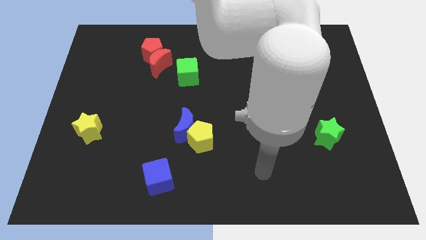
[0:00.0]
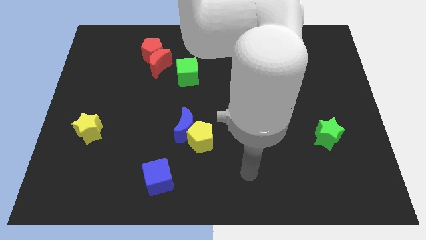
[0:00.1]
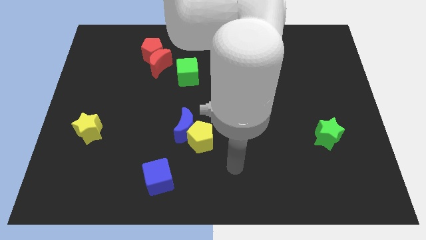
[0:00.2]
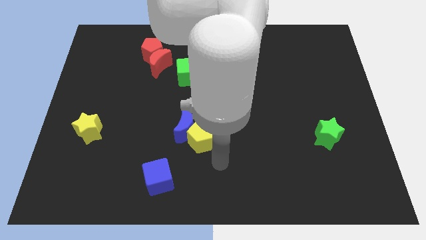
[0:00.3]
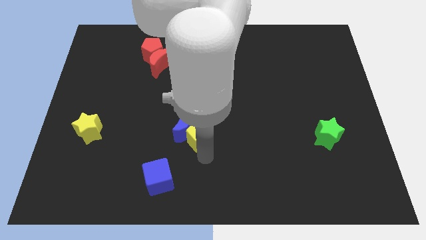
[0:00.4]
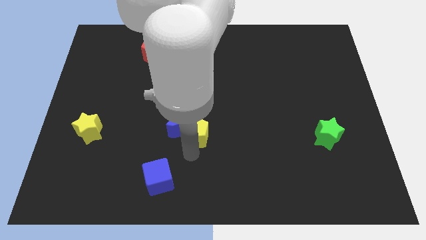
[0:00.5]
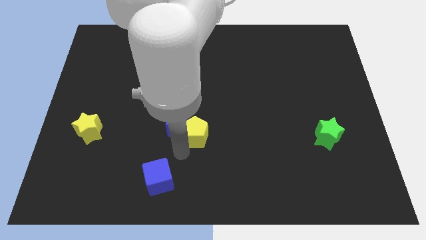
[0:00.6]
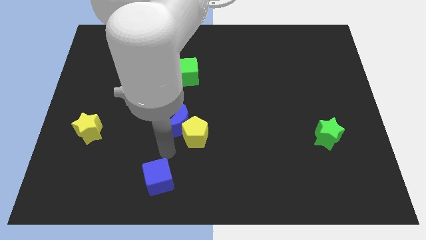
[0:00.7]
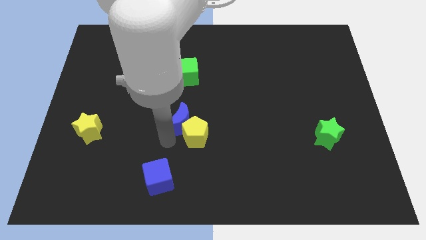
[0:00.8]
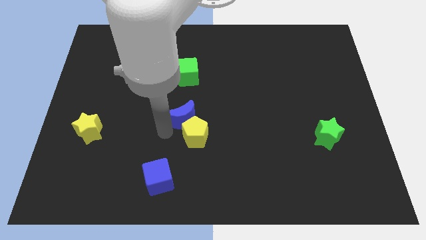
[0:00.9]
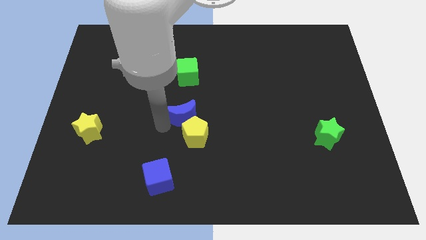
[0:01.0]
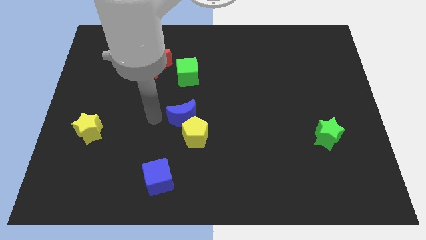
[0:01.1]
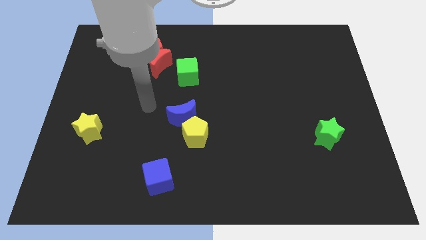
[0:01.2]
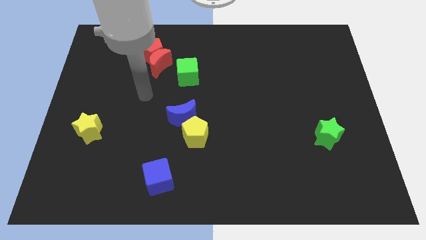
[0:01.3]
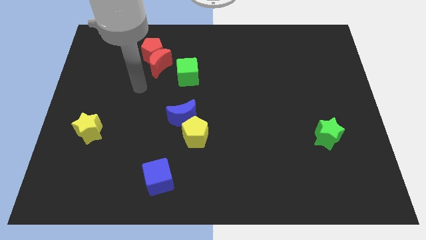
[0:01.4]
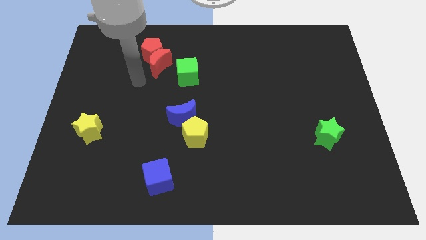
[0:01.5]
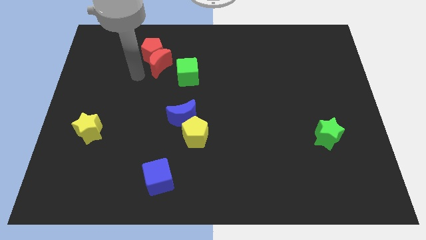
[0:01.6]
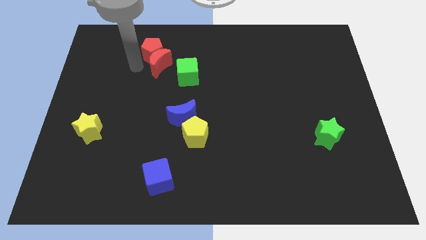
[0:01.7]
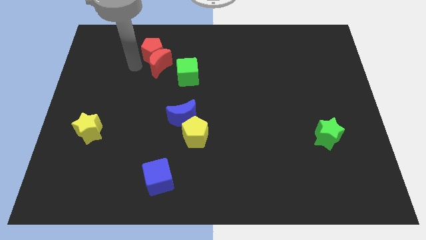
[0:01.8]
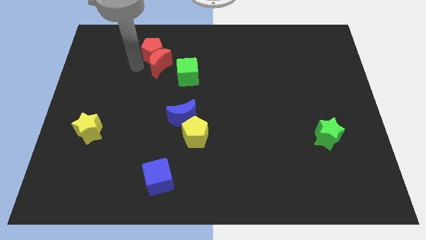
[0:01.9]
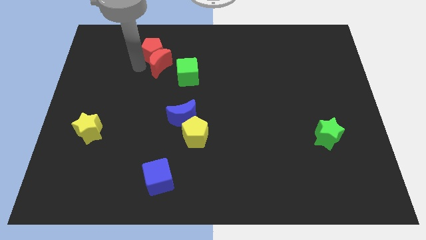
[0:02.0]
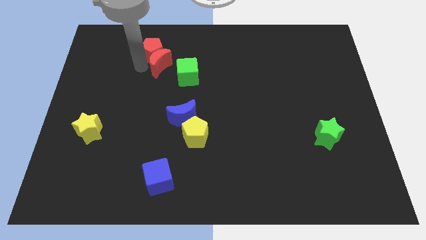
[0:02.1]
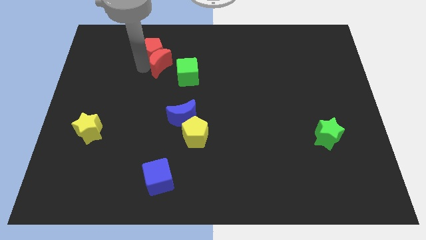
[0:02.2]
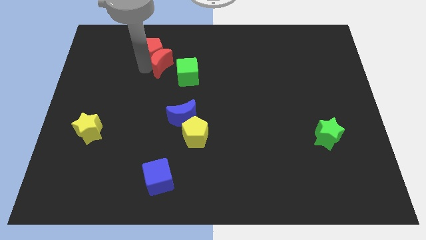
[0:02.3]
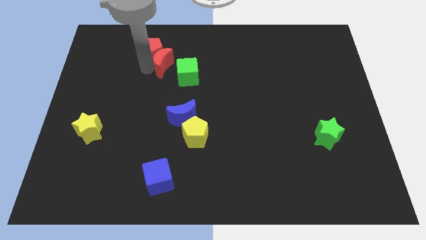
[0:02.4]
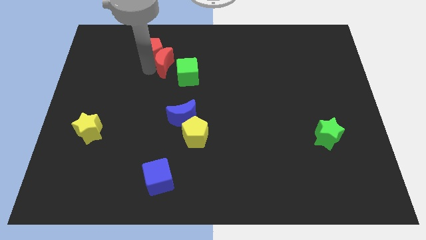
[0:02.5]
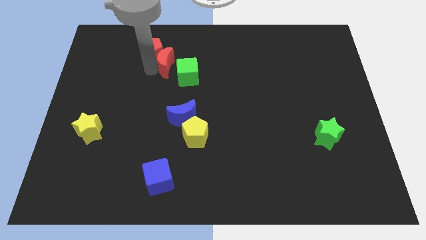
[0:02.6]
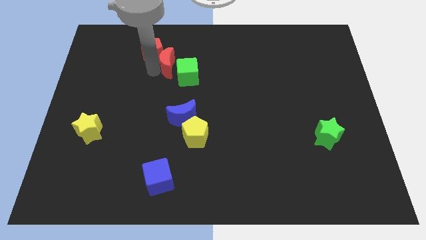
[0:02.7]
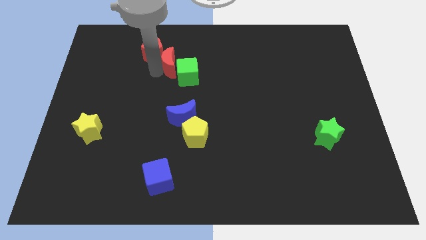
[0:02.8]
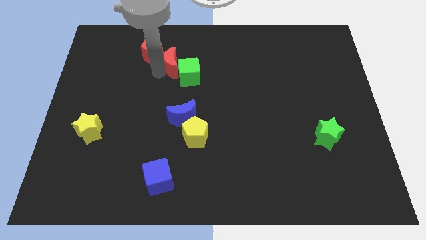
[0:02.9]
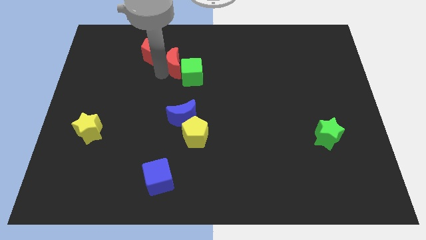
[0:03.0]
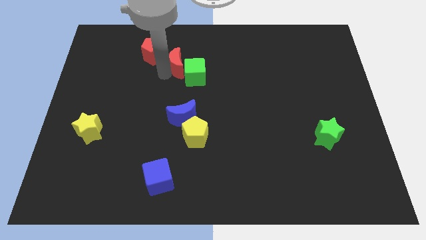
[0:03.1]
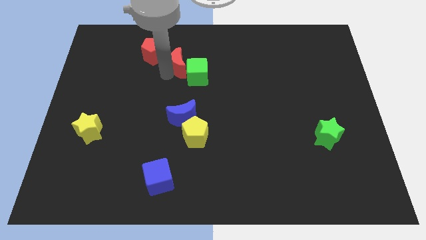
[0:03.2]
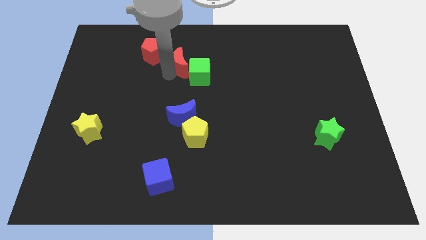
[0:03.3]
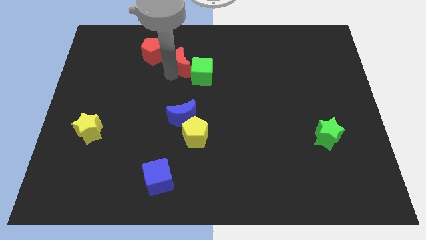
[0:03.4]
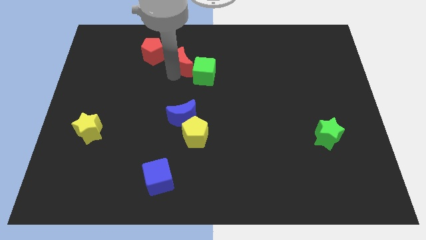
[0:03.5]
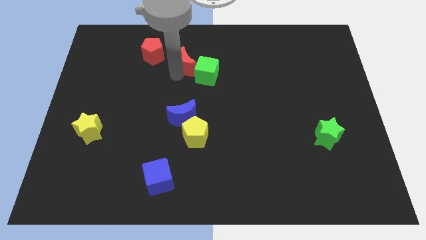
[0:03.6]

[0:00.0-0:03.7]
move the red moon somewhat right

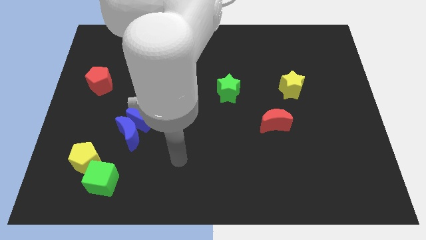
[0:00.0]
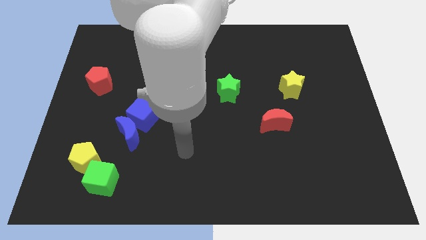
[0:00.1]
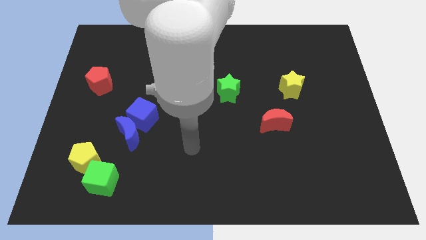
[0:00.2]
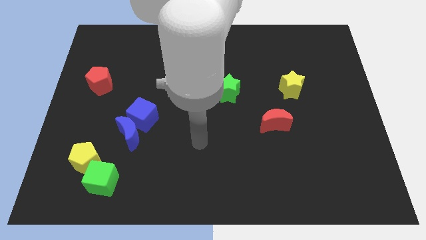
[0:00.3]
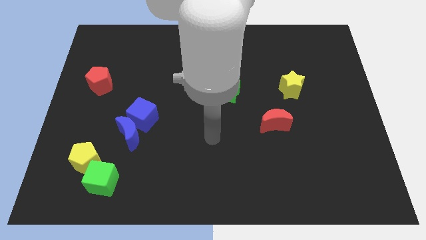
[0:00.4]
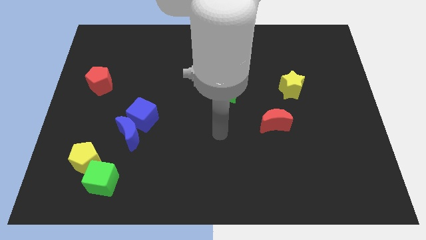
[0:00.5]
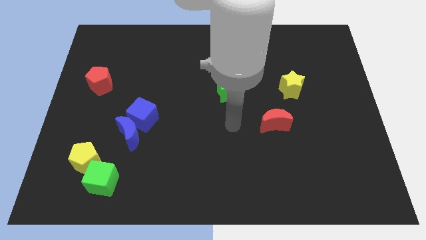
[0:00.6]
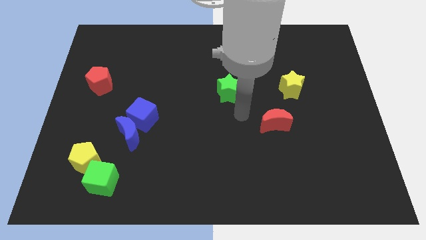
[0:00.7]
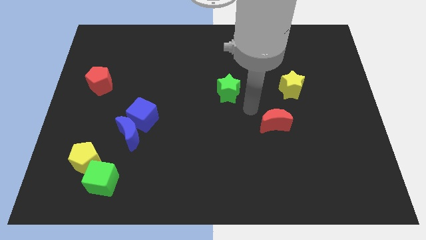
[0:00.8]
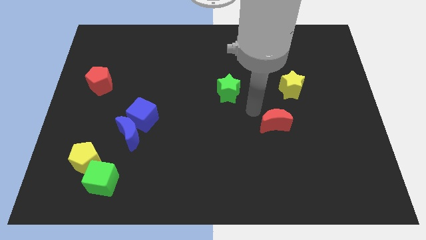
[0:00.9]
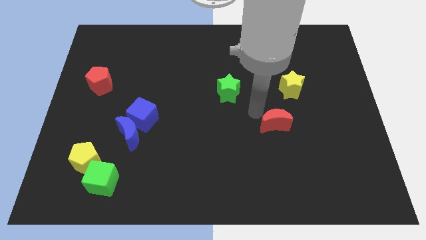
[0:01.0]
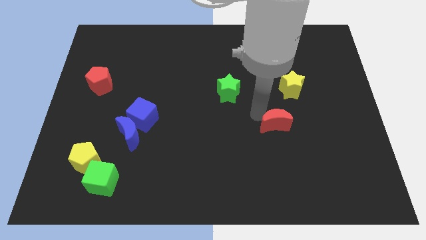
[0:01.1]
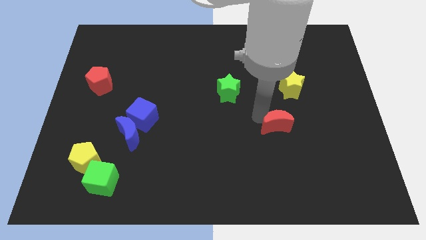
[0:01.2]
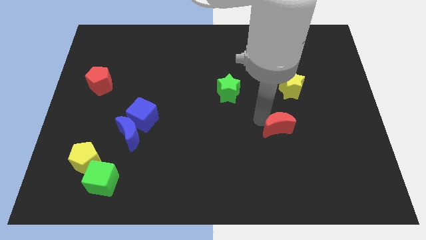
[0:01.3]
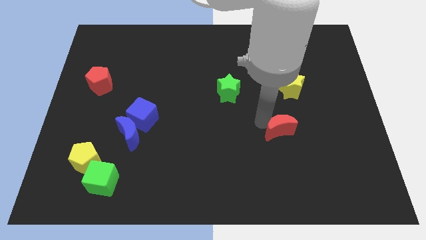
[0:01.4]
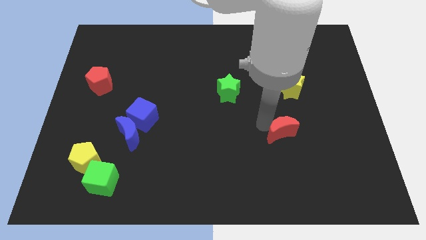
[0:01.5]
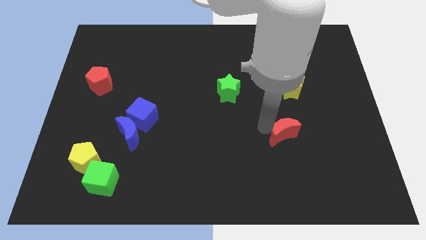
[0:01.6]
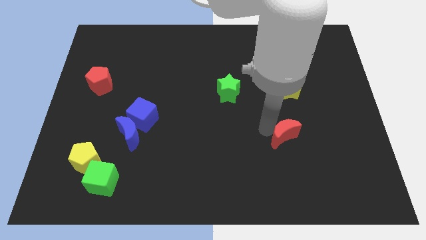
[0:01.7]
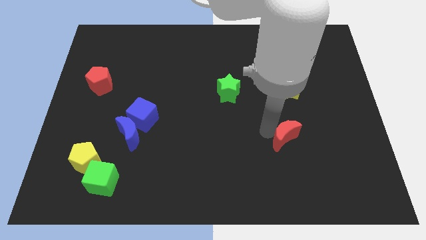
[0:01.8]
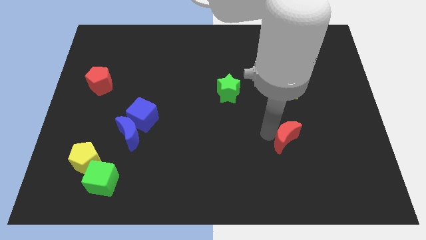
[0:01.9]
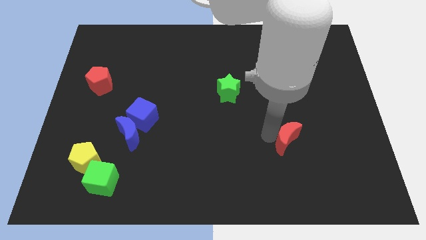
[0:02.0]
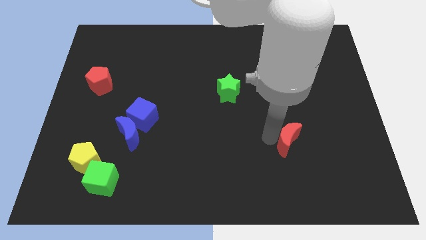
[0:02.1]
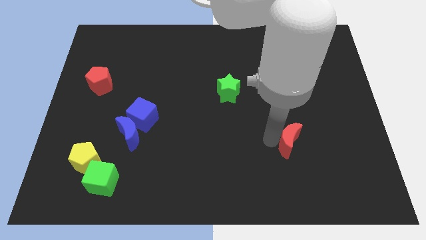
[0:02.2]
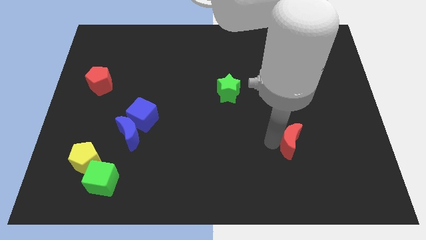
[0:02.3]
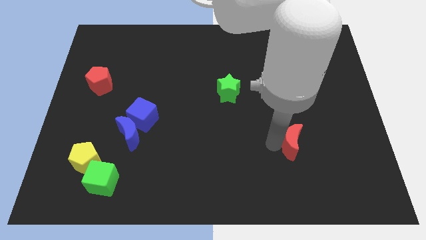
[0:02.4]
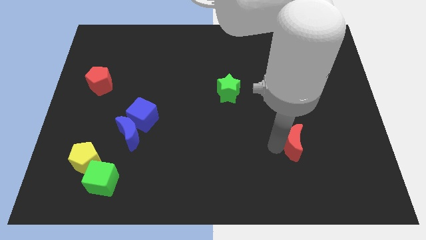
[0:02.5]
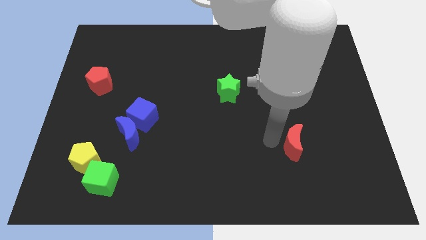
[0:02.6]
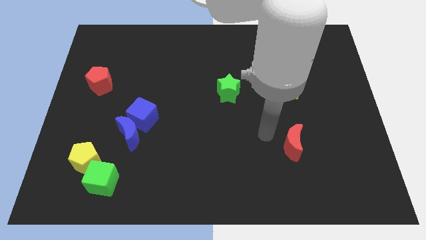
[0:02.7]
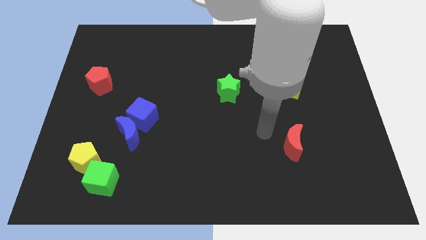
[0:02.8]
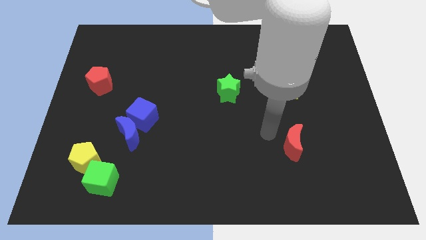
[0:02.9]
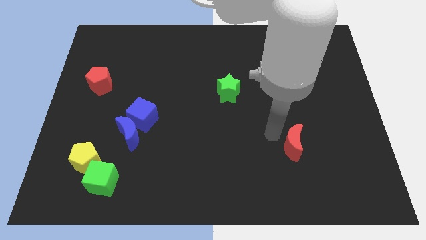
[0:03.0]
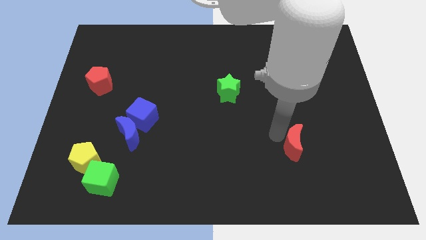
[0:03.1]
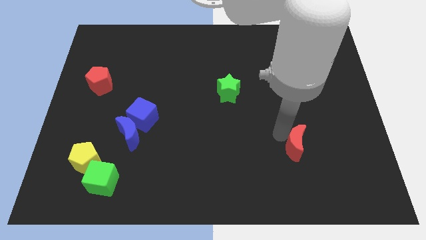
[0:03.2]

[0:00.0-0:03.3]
move the red moon downwards and right somewhat

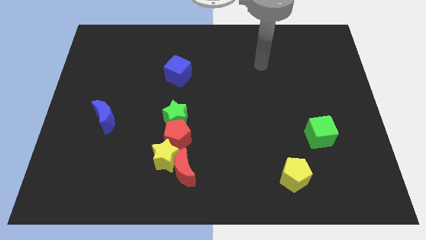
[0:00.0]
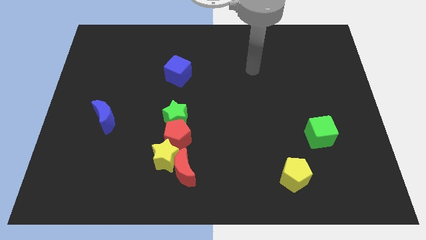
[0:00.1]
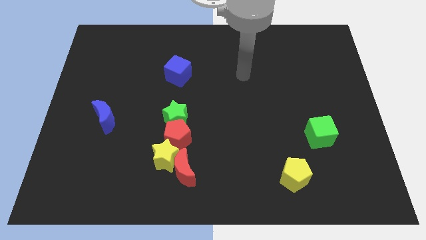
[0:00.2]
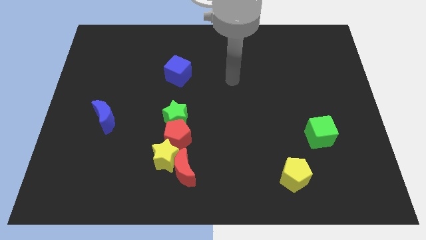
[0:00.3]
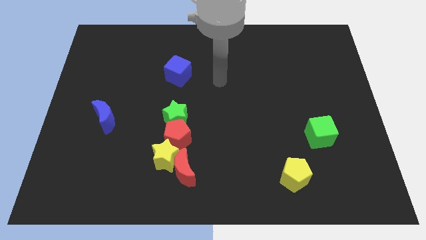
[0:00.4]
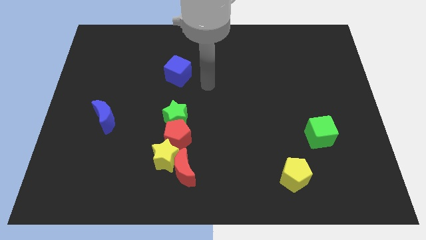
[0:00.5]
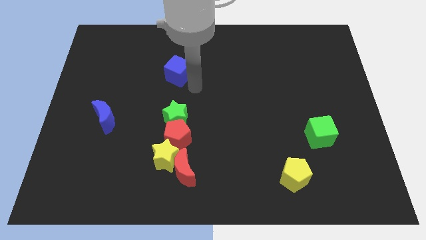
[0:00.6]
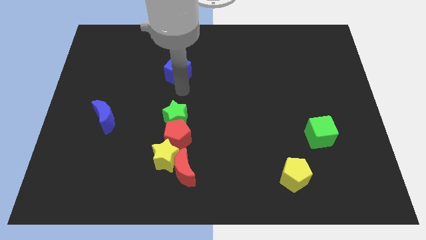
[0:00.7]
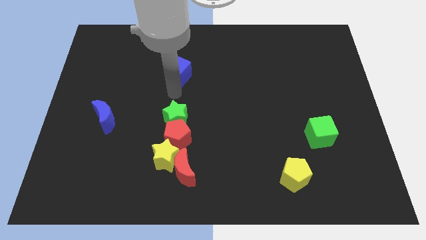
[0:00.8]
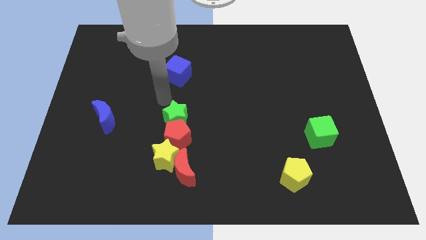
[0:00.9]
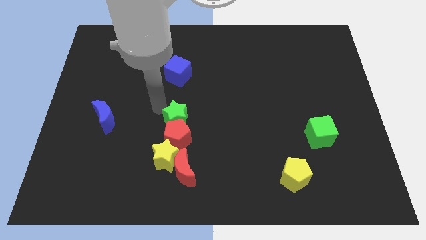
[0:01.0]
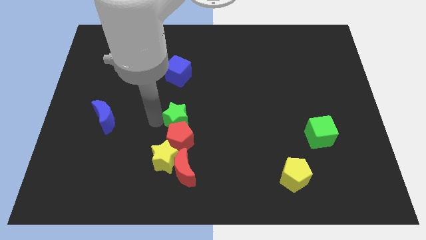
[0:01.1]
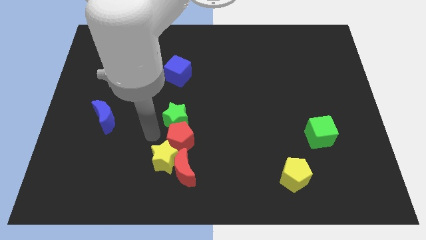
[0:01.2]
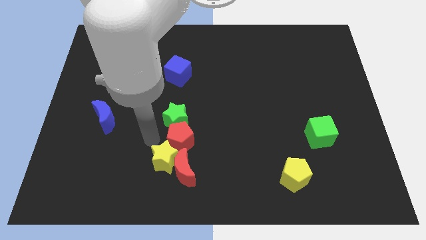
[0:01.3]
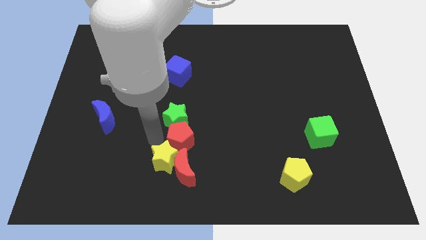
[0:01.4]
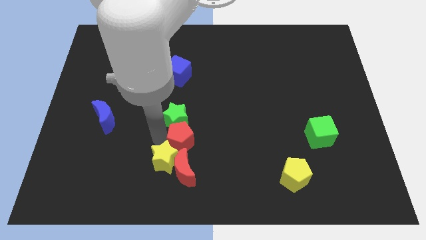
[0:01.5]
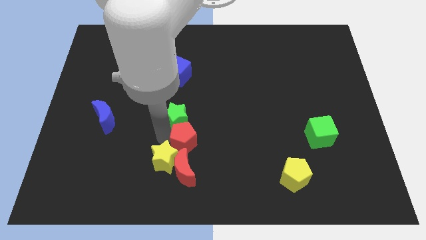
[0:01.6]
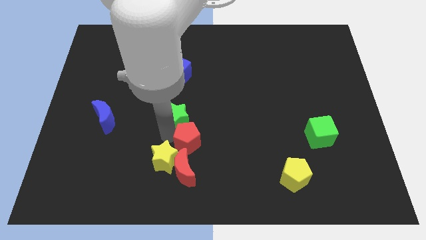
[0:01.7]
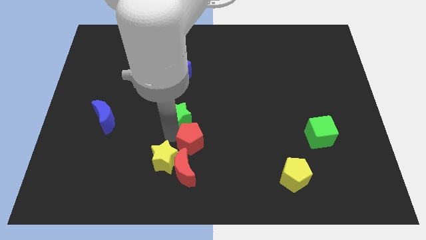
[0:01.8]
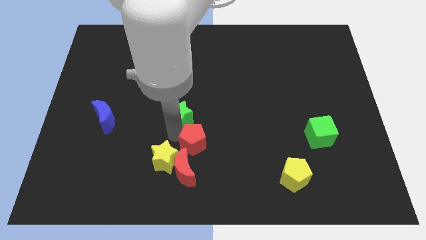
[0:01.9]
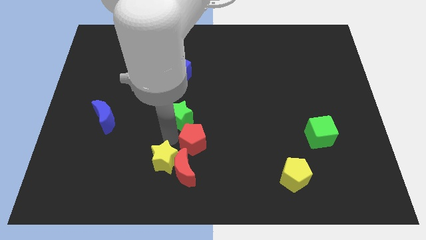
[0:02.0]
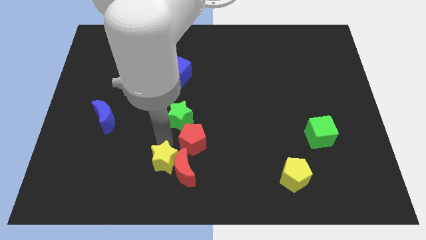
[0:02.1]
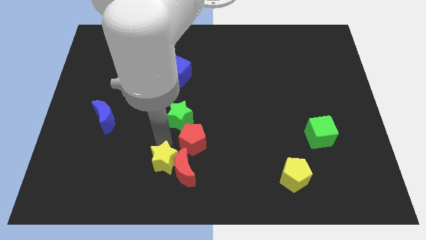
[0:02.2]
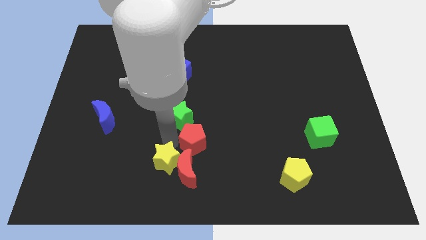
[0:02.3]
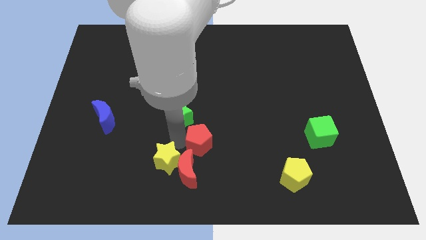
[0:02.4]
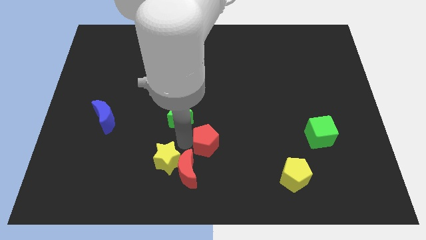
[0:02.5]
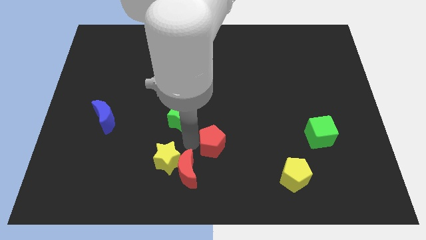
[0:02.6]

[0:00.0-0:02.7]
move the red pentagon to the right slightly
